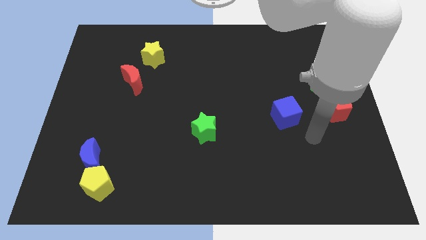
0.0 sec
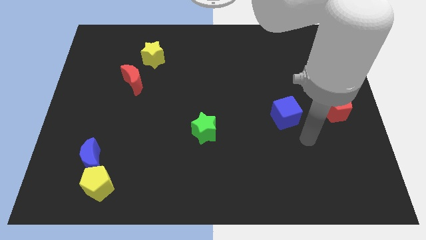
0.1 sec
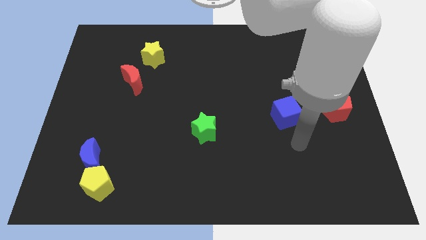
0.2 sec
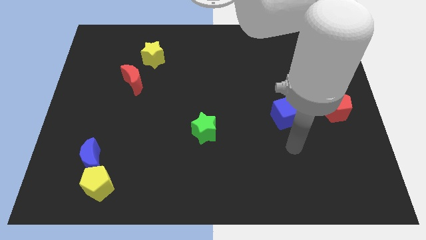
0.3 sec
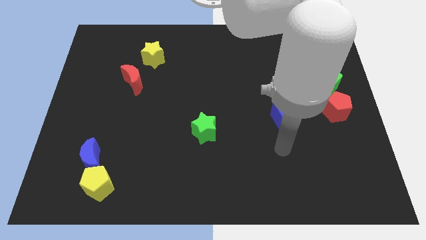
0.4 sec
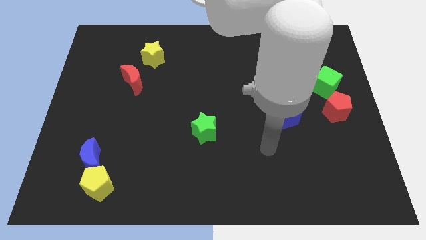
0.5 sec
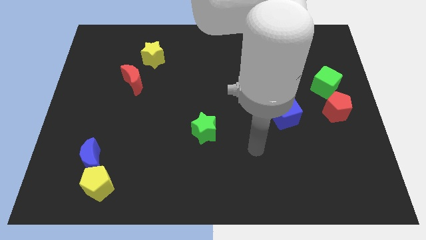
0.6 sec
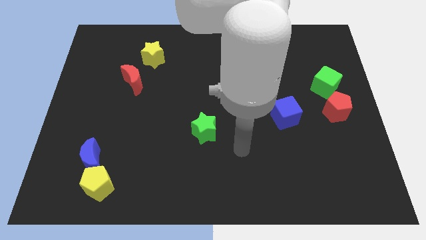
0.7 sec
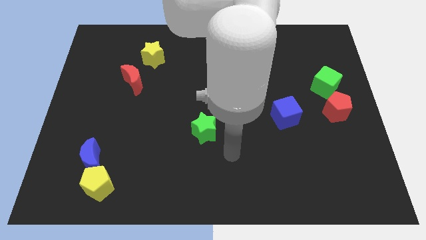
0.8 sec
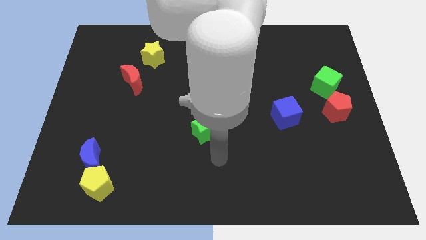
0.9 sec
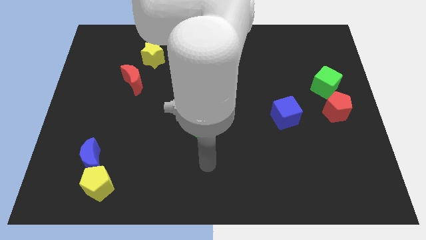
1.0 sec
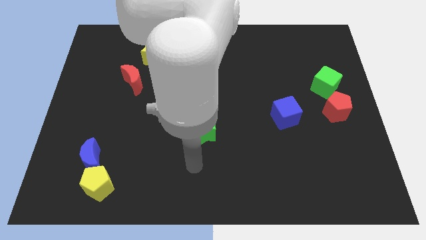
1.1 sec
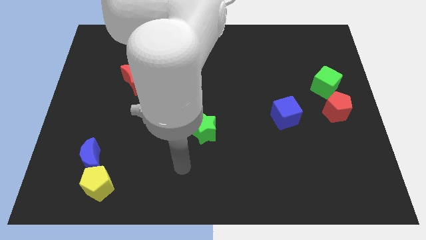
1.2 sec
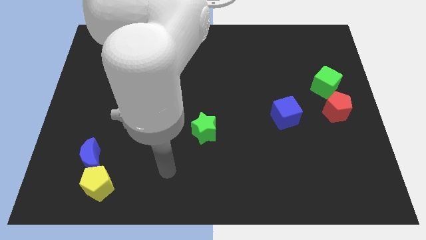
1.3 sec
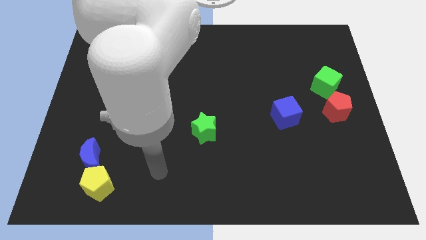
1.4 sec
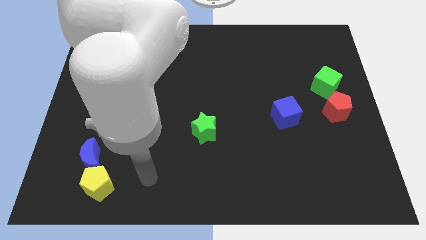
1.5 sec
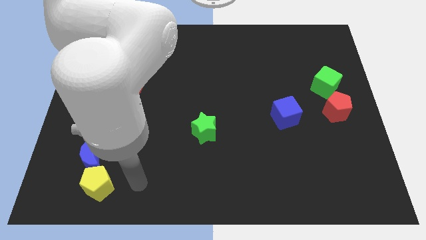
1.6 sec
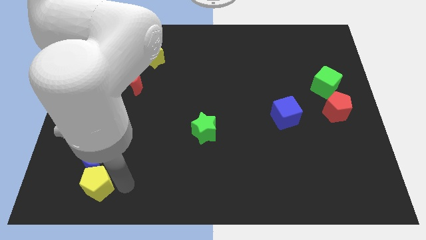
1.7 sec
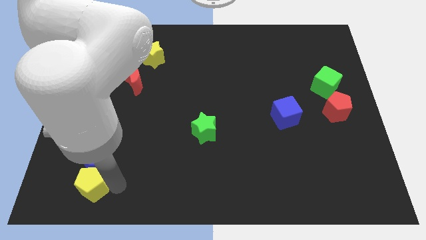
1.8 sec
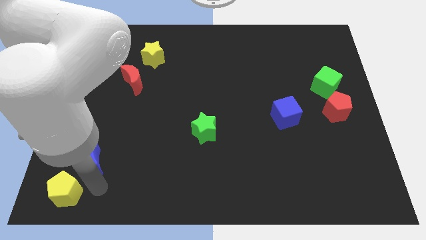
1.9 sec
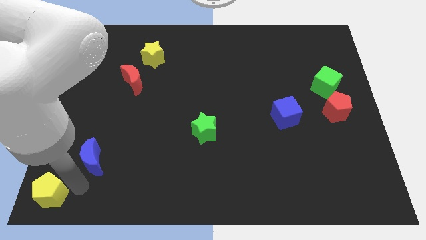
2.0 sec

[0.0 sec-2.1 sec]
separate the blue moon from the yellow pentagon

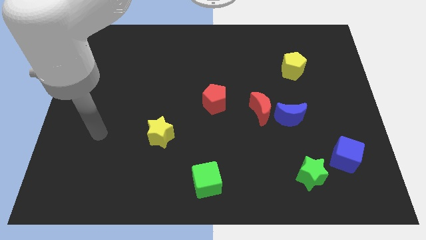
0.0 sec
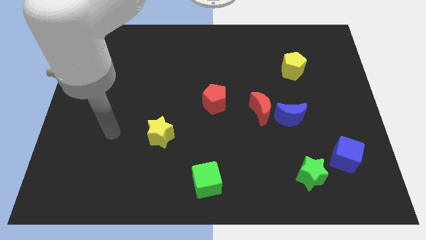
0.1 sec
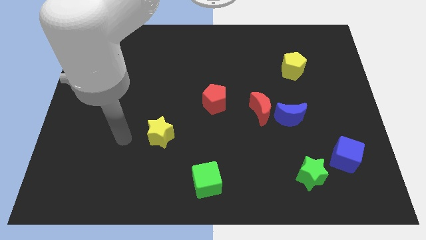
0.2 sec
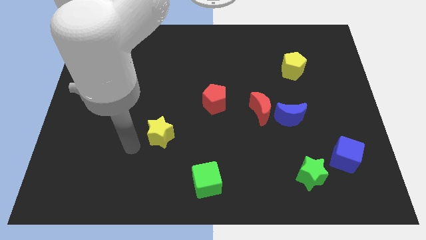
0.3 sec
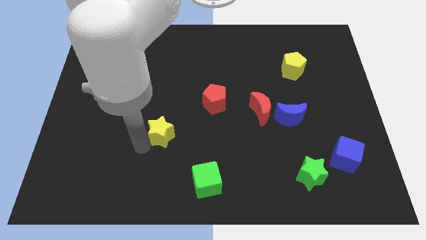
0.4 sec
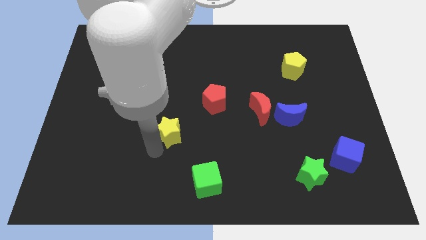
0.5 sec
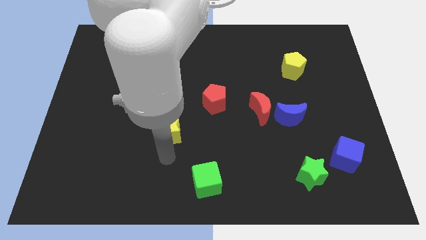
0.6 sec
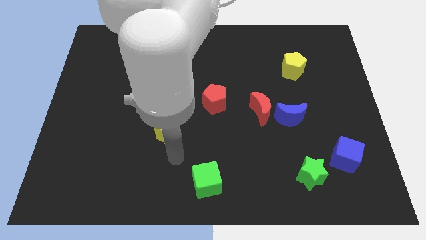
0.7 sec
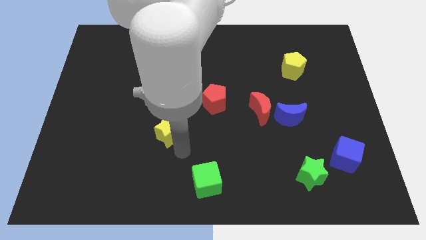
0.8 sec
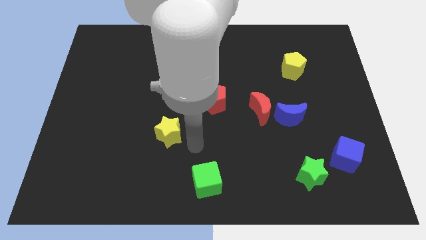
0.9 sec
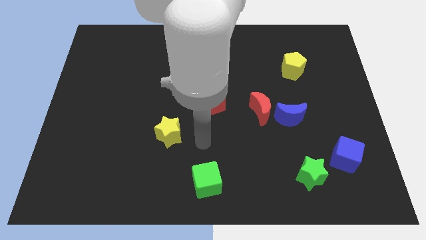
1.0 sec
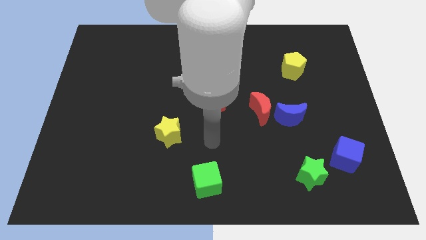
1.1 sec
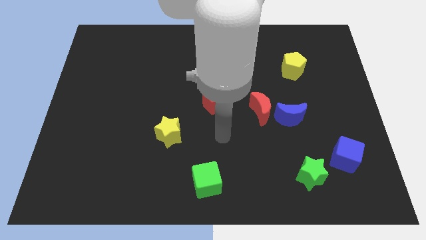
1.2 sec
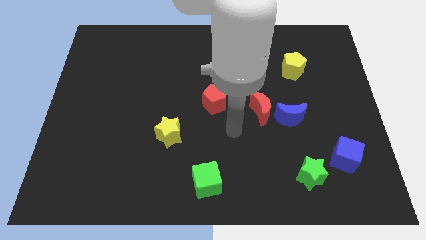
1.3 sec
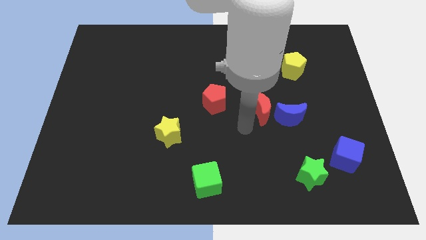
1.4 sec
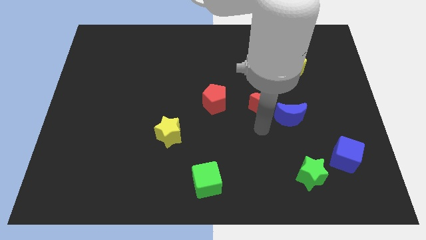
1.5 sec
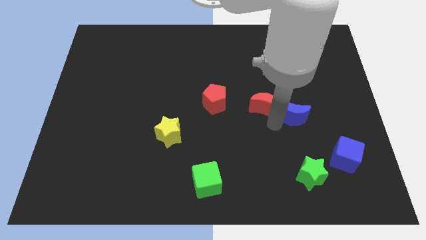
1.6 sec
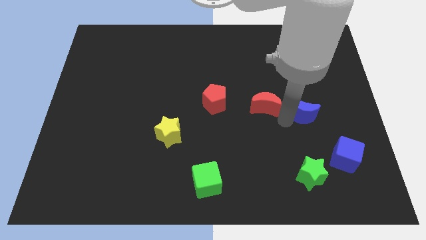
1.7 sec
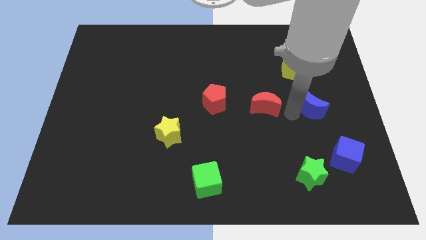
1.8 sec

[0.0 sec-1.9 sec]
pull the red moon apart from the blue moon

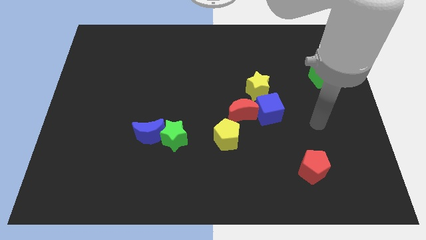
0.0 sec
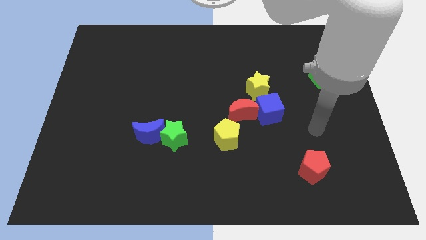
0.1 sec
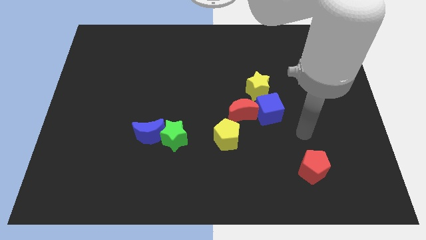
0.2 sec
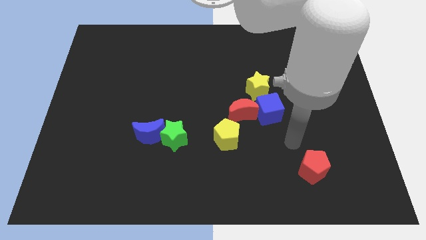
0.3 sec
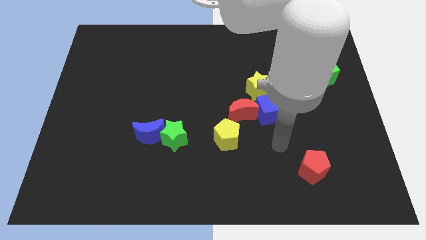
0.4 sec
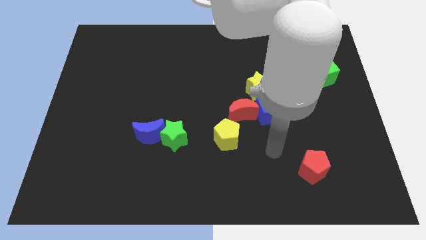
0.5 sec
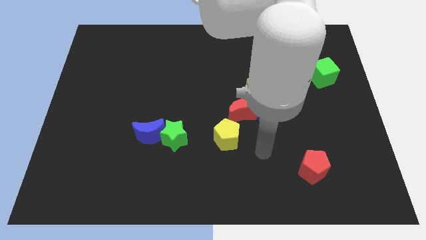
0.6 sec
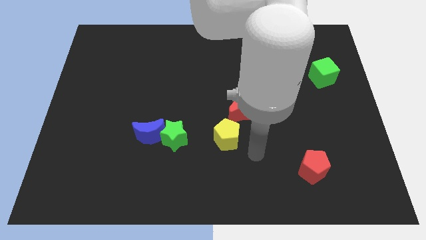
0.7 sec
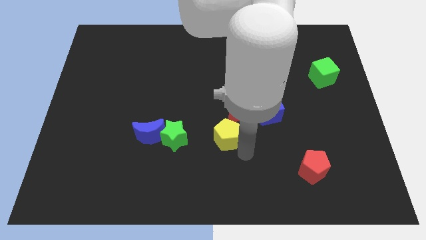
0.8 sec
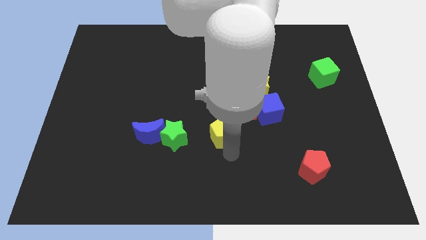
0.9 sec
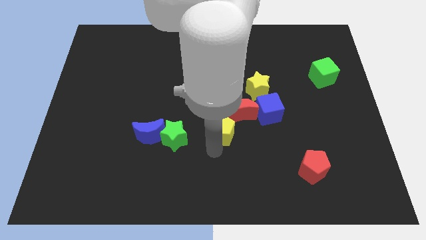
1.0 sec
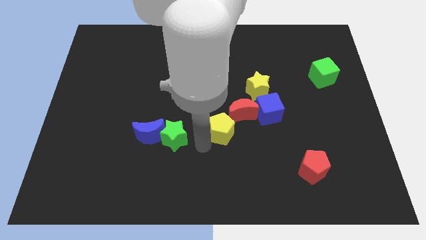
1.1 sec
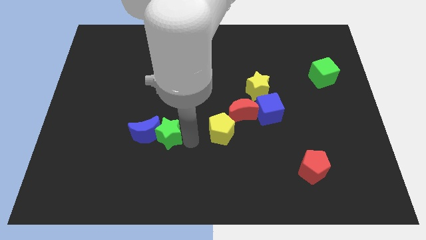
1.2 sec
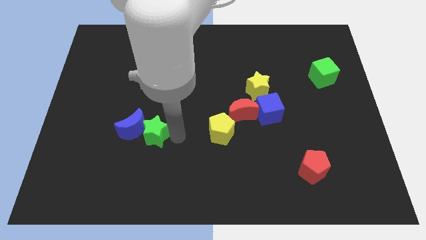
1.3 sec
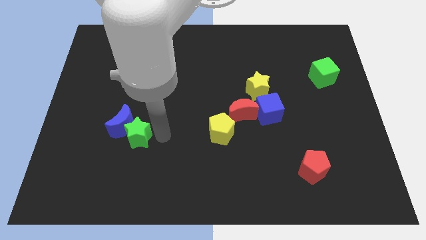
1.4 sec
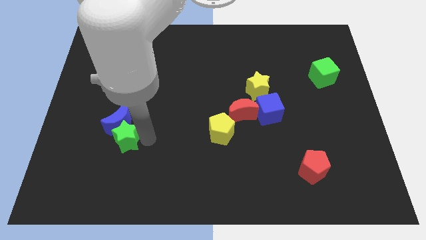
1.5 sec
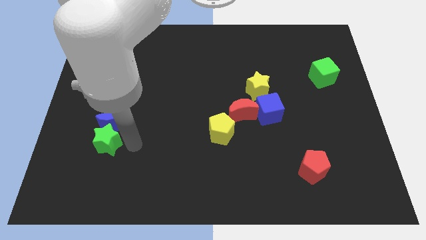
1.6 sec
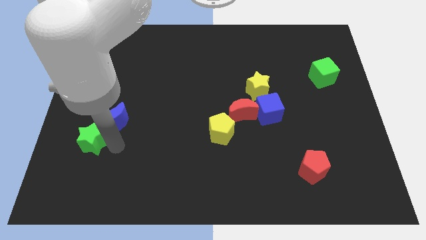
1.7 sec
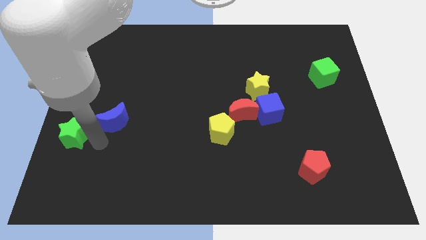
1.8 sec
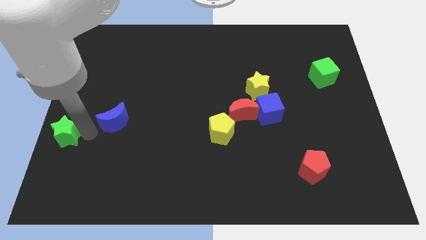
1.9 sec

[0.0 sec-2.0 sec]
separate the blue moon from the green star

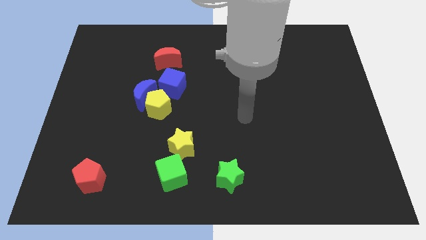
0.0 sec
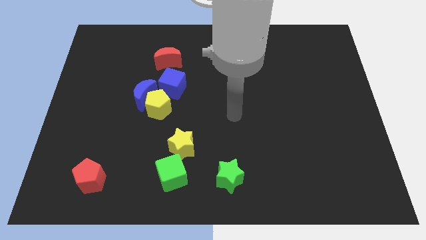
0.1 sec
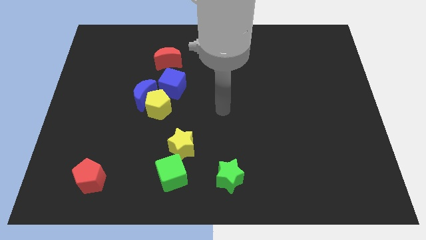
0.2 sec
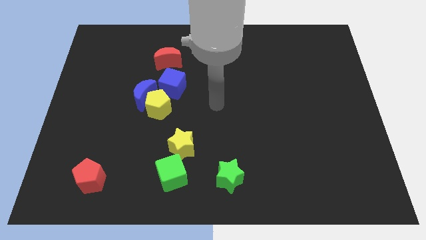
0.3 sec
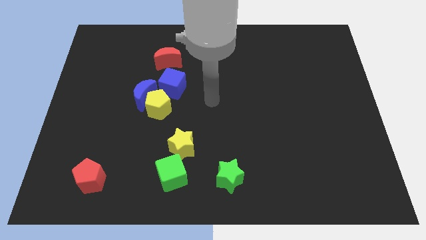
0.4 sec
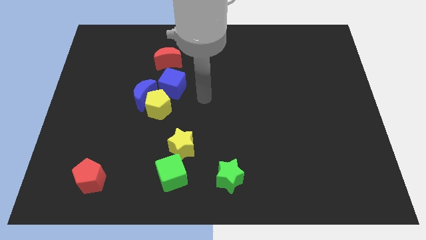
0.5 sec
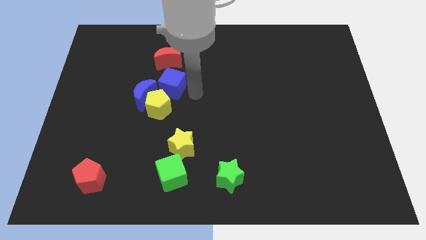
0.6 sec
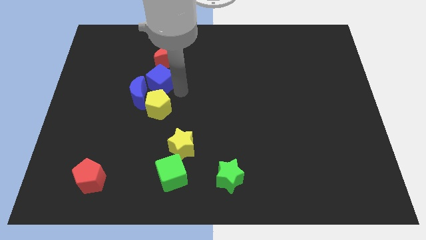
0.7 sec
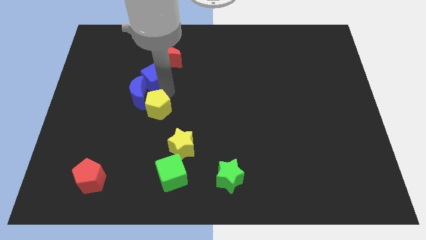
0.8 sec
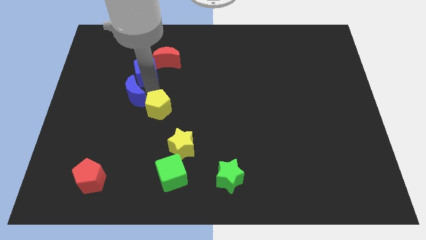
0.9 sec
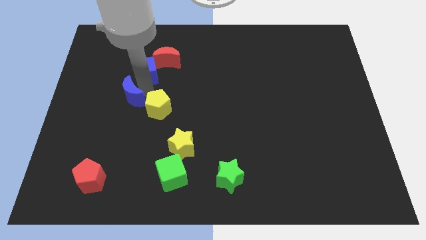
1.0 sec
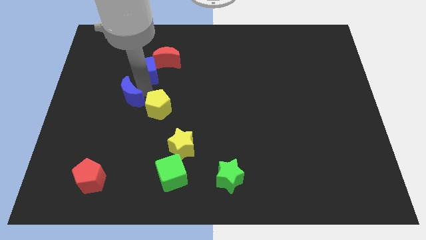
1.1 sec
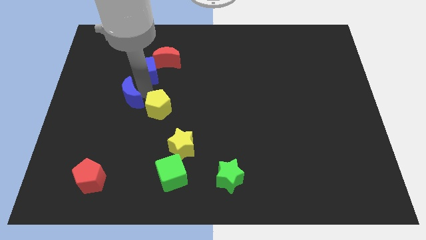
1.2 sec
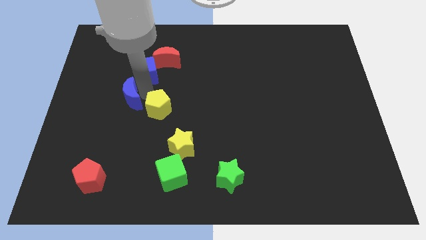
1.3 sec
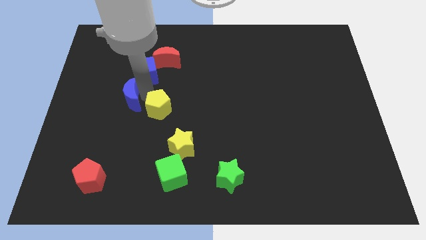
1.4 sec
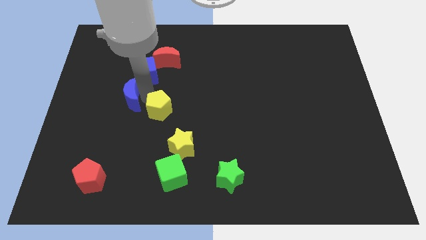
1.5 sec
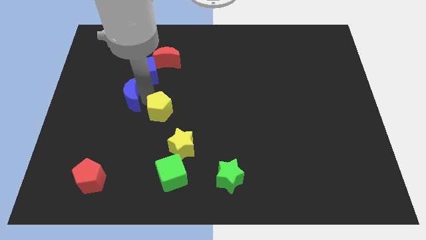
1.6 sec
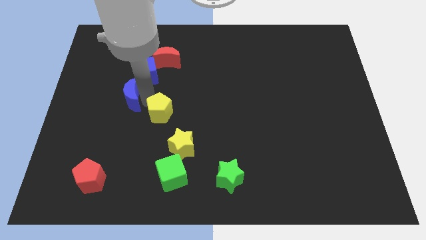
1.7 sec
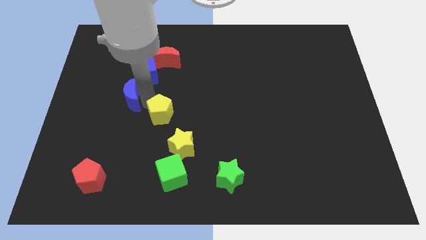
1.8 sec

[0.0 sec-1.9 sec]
move the yellow pentagon away from the blue moon and blue cube

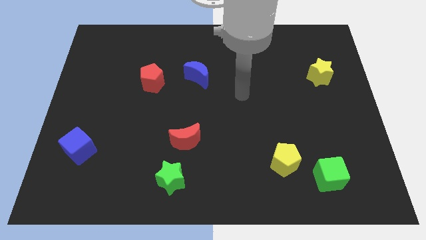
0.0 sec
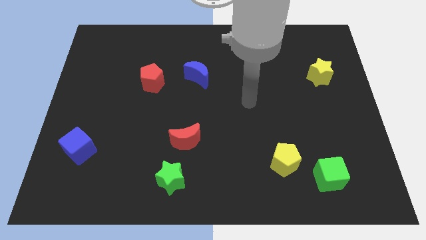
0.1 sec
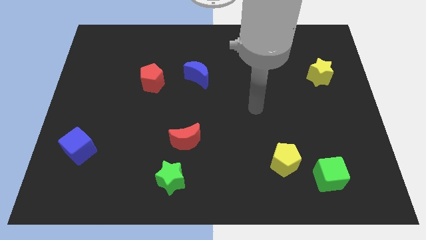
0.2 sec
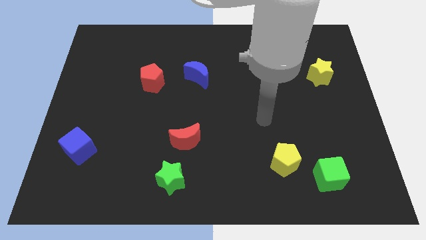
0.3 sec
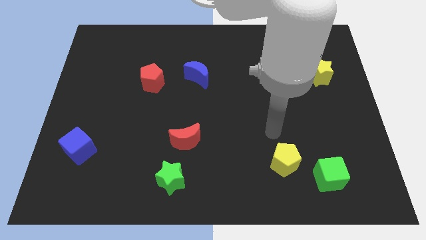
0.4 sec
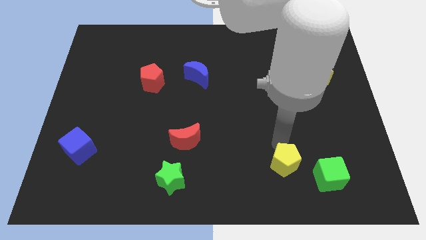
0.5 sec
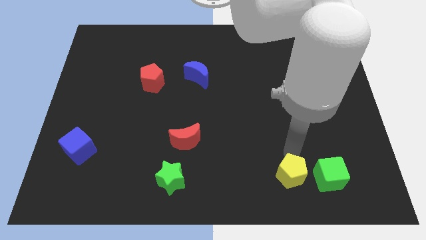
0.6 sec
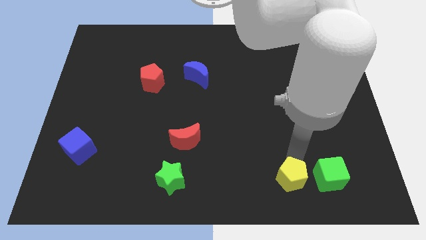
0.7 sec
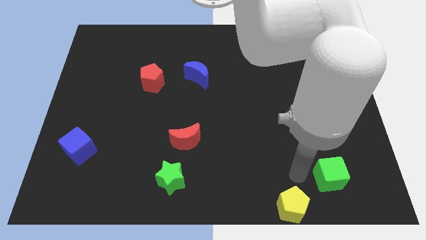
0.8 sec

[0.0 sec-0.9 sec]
separate the green cube from the yellow pentagon

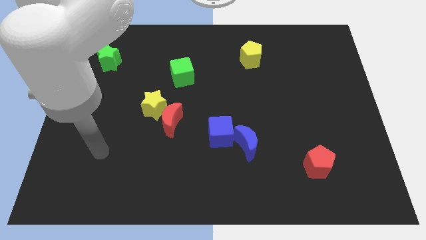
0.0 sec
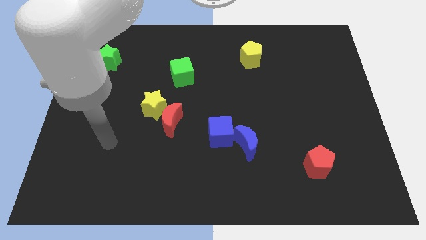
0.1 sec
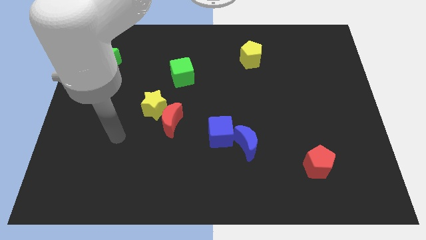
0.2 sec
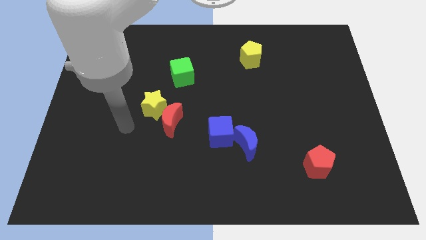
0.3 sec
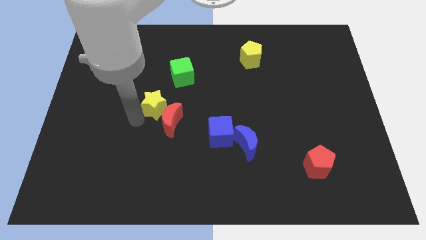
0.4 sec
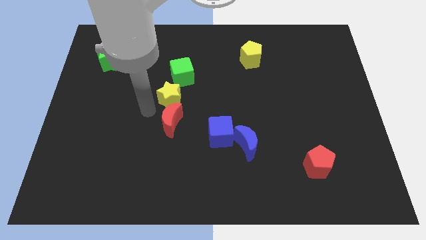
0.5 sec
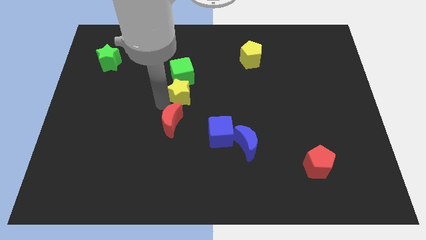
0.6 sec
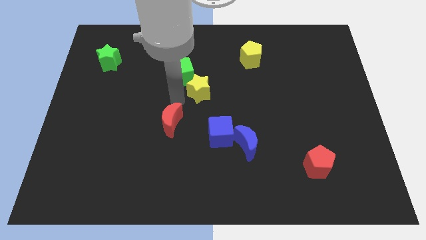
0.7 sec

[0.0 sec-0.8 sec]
separate the red moon from the yellow star
